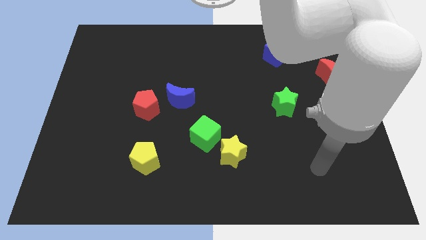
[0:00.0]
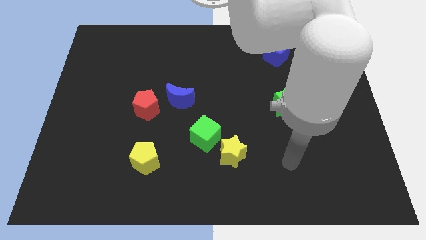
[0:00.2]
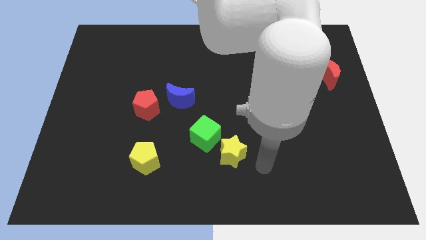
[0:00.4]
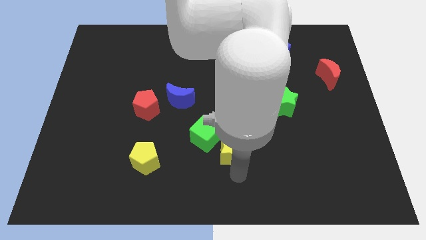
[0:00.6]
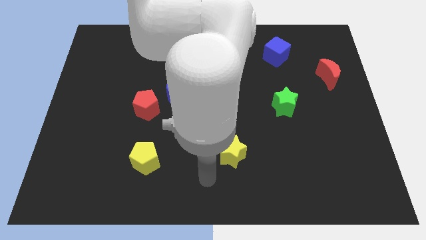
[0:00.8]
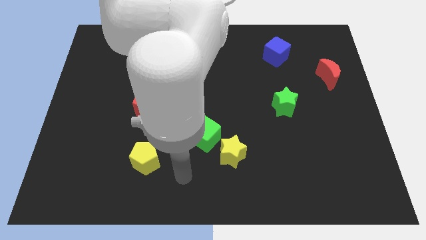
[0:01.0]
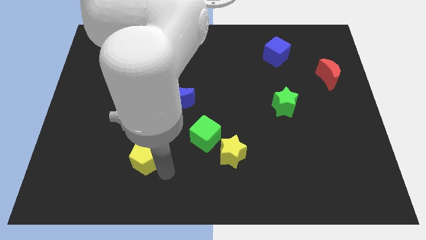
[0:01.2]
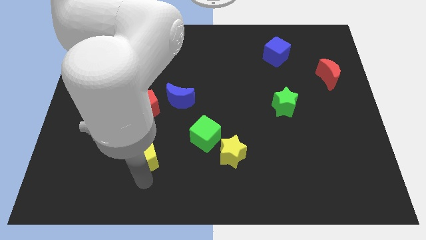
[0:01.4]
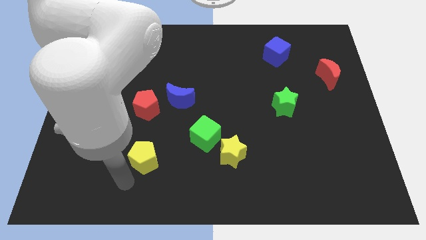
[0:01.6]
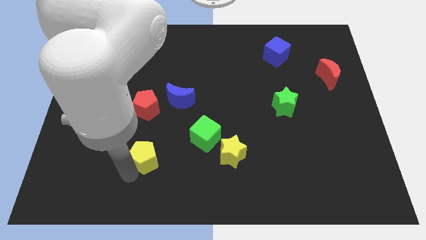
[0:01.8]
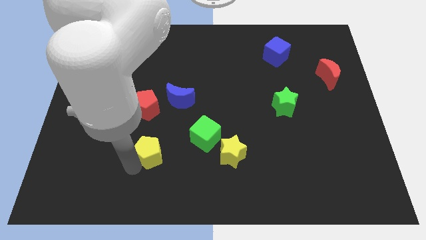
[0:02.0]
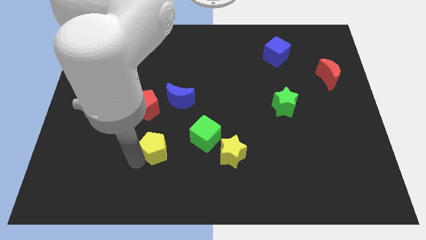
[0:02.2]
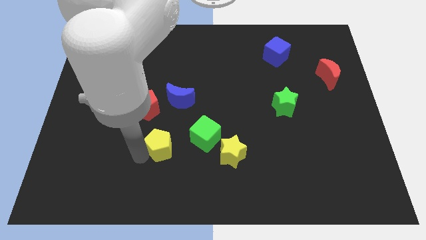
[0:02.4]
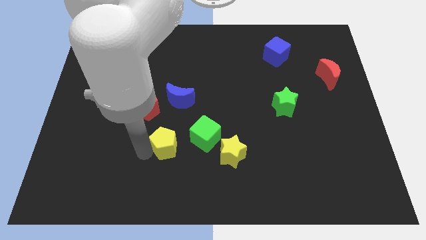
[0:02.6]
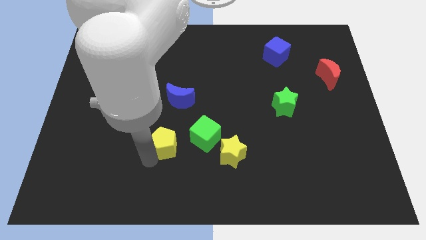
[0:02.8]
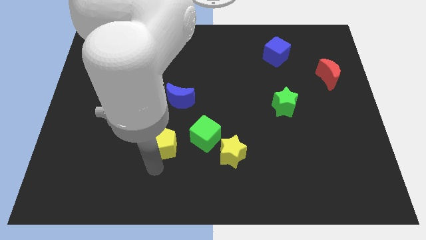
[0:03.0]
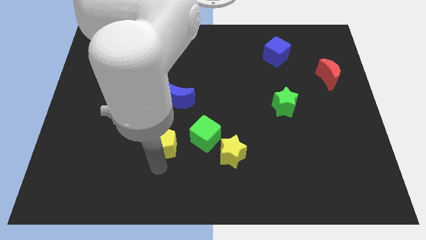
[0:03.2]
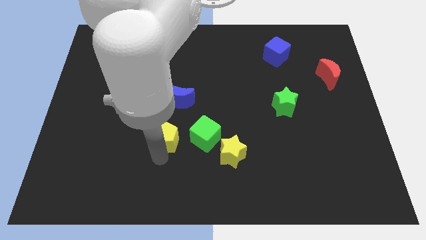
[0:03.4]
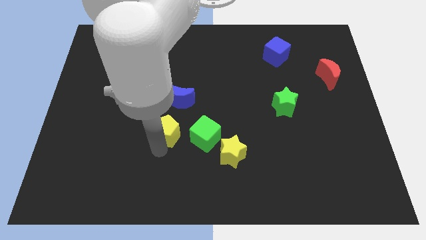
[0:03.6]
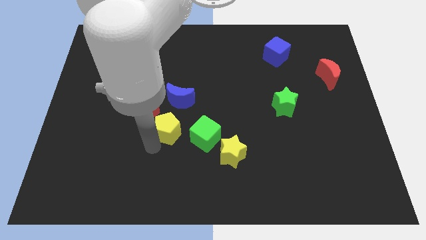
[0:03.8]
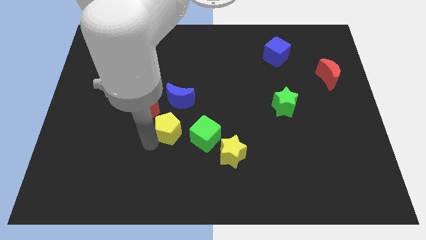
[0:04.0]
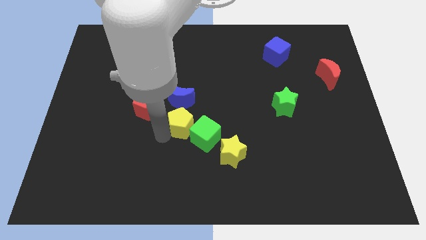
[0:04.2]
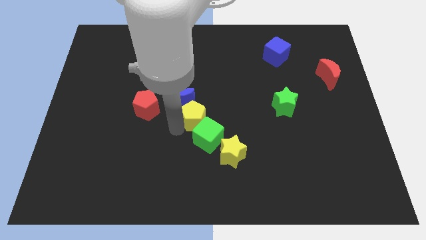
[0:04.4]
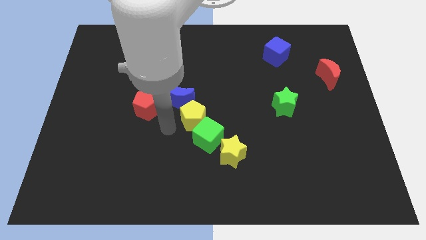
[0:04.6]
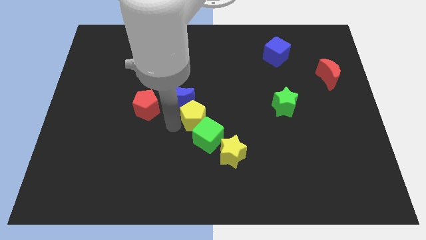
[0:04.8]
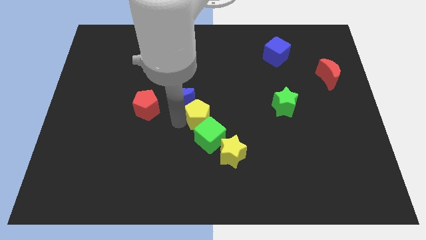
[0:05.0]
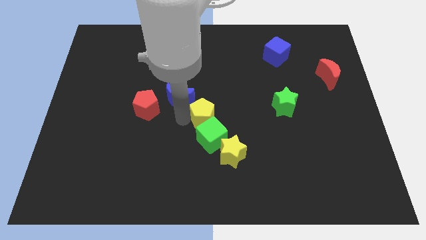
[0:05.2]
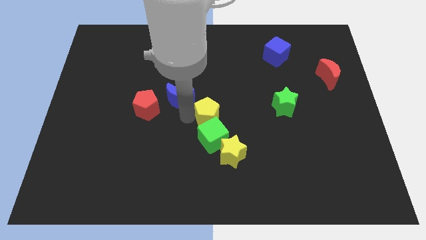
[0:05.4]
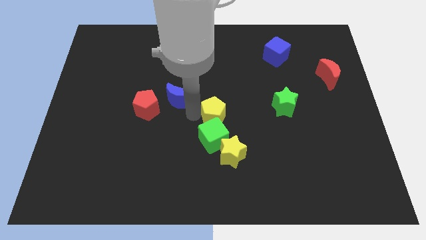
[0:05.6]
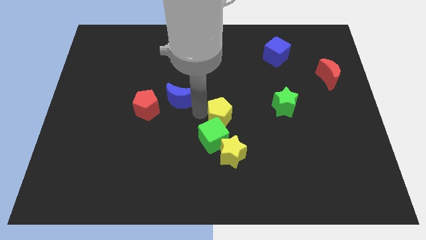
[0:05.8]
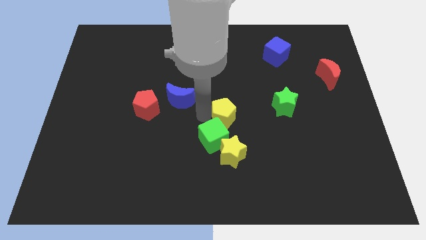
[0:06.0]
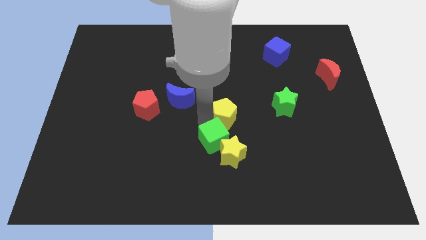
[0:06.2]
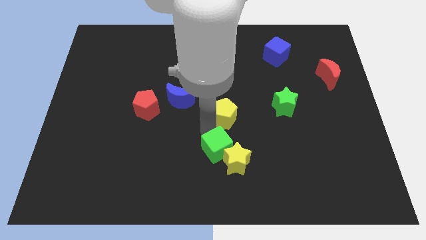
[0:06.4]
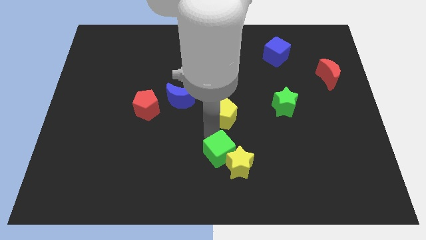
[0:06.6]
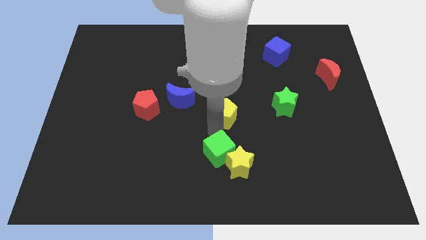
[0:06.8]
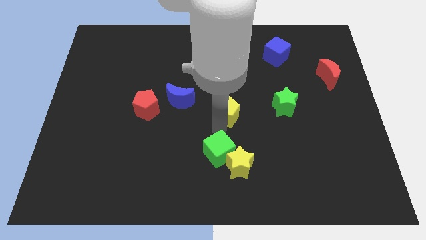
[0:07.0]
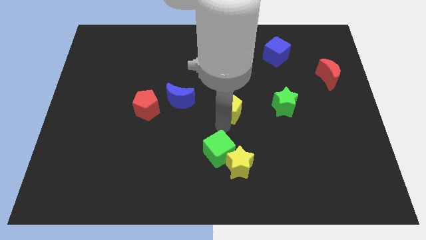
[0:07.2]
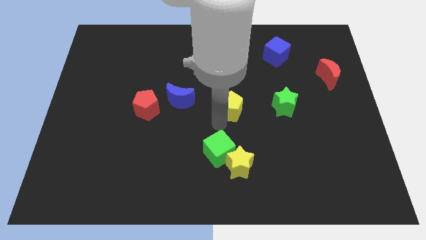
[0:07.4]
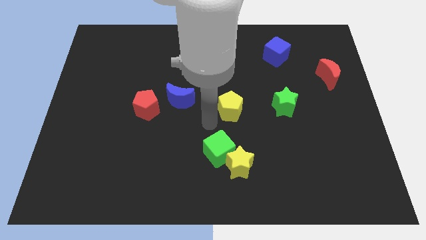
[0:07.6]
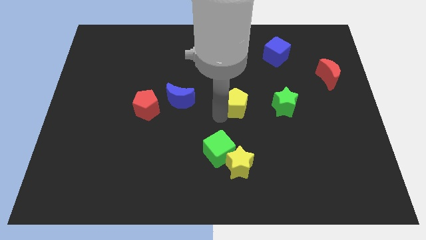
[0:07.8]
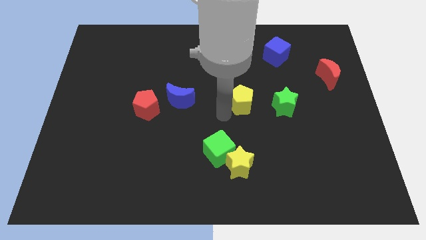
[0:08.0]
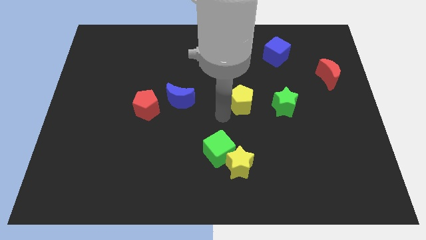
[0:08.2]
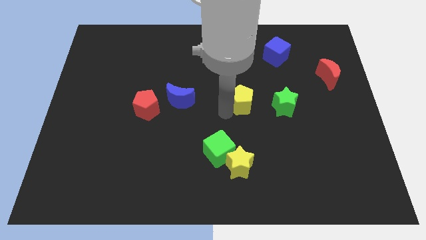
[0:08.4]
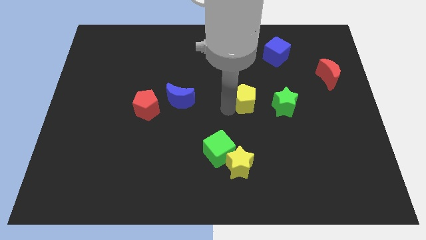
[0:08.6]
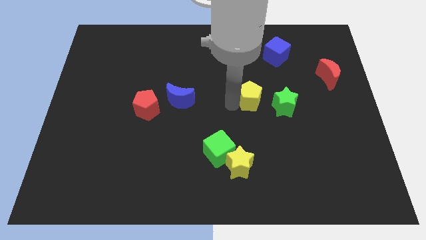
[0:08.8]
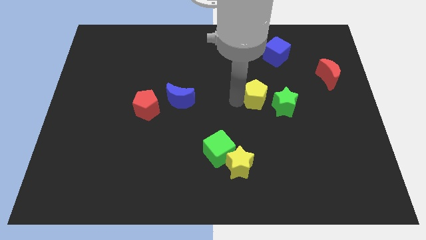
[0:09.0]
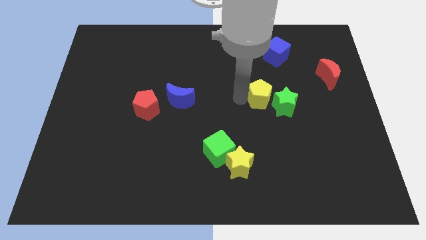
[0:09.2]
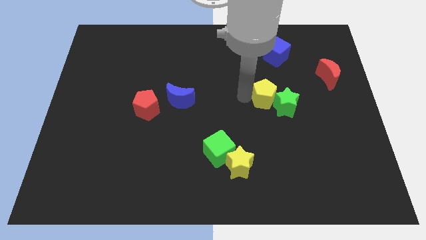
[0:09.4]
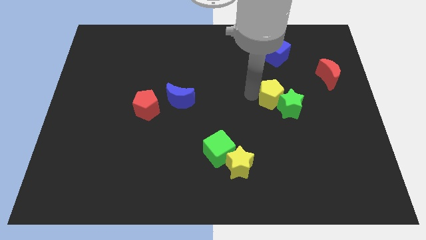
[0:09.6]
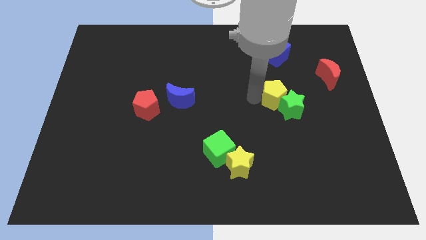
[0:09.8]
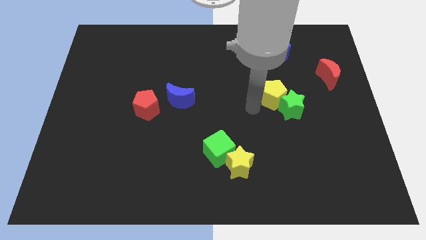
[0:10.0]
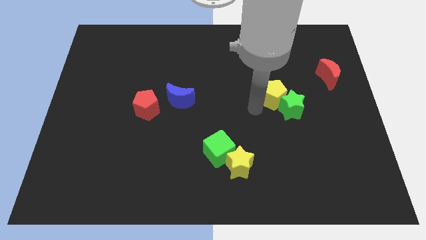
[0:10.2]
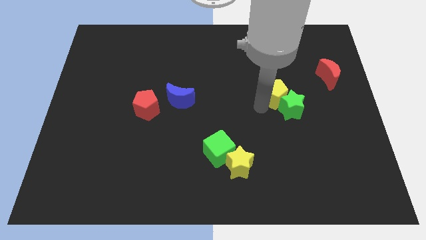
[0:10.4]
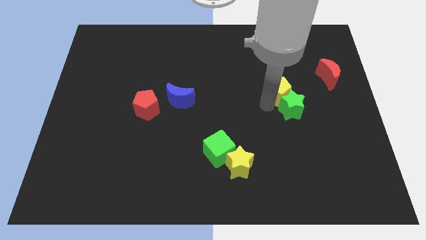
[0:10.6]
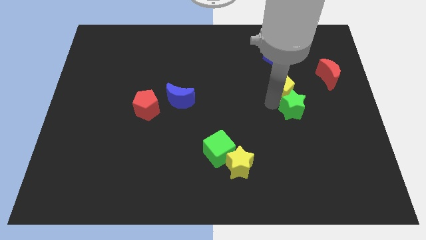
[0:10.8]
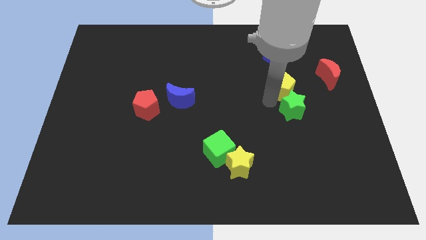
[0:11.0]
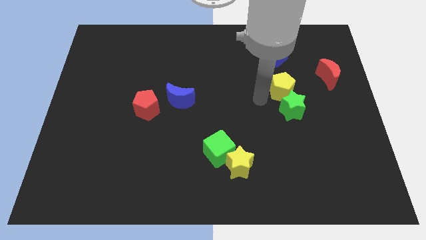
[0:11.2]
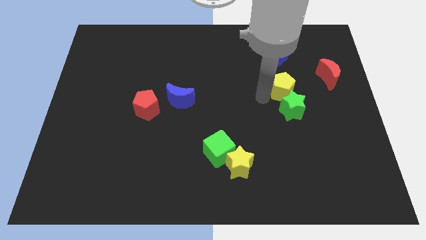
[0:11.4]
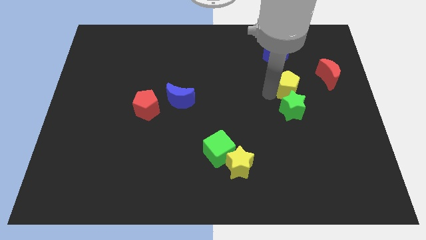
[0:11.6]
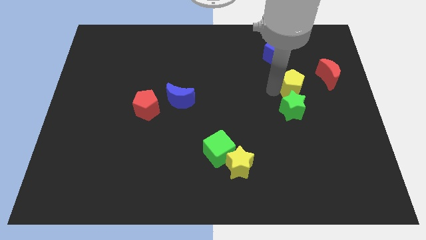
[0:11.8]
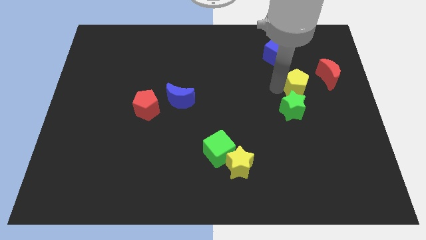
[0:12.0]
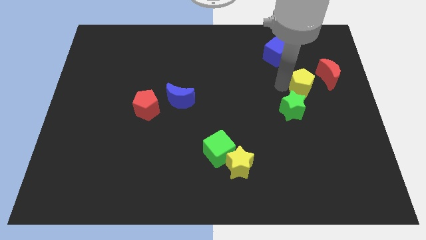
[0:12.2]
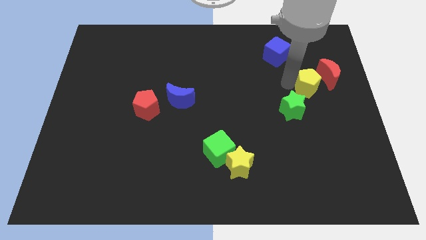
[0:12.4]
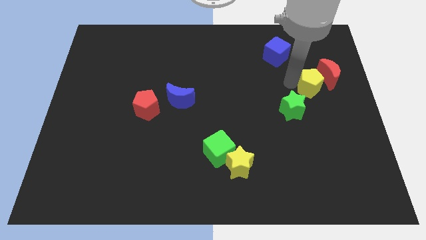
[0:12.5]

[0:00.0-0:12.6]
move the yellow pentagon towards the red moon

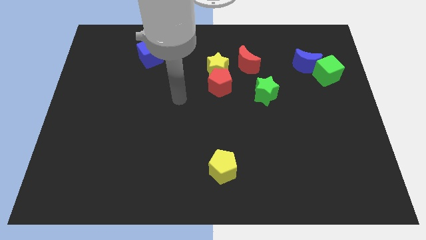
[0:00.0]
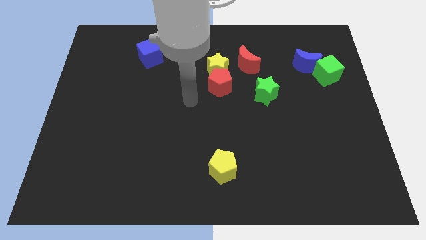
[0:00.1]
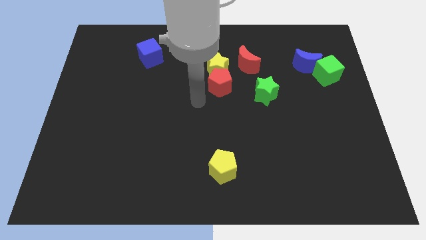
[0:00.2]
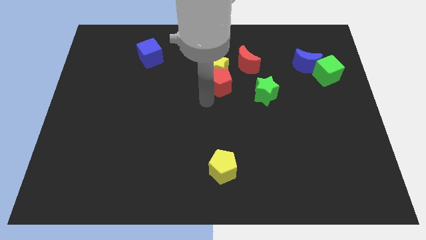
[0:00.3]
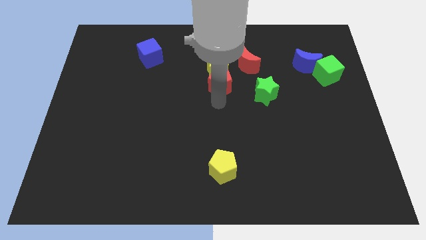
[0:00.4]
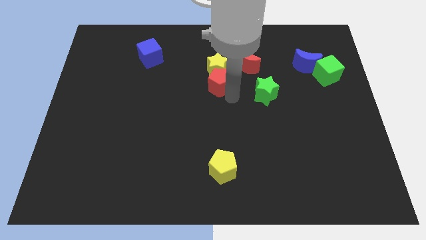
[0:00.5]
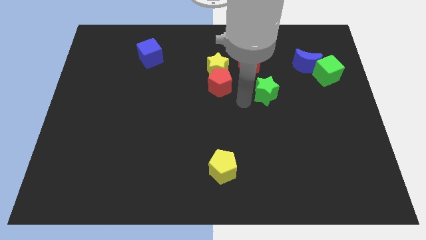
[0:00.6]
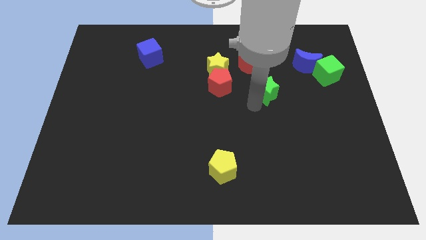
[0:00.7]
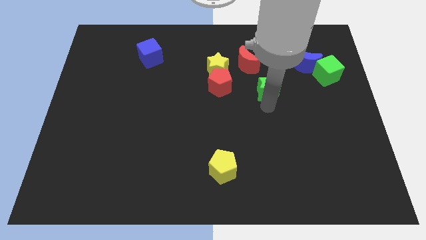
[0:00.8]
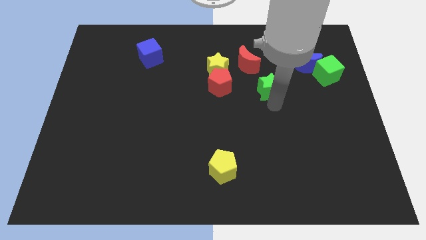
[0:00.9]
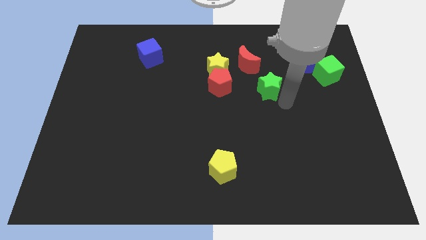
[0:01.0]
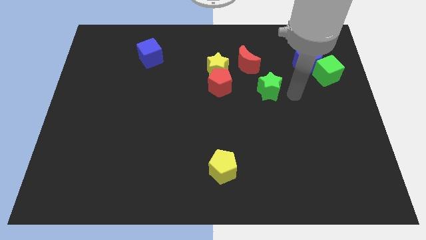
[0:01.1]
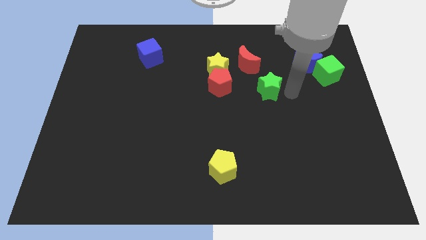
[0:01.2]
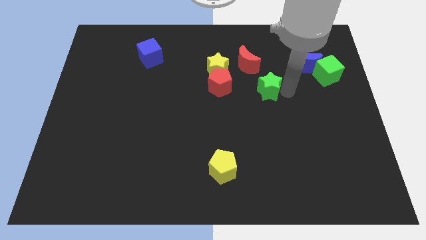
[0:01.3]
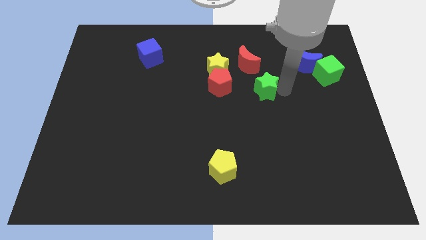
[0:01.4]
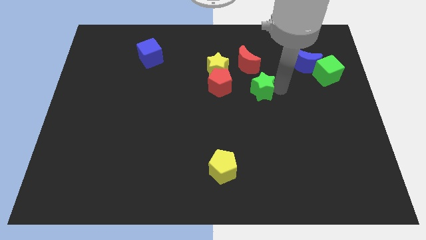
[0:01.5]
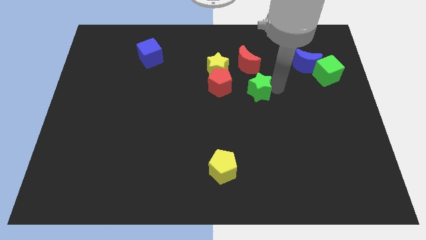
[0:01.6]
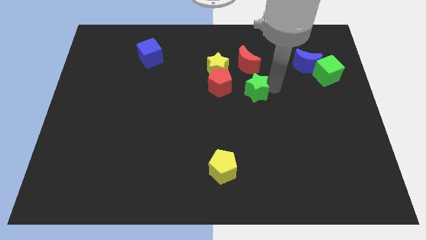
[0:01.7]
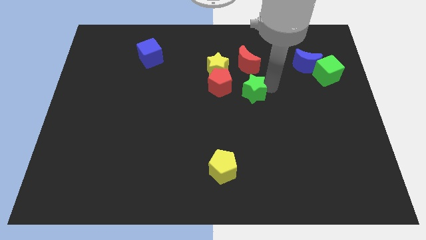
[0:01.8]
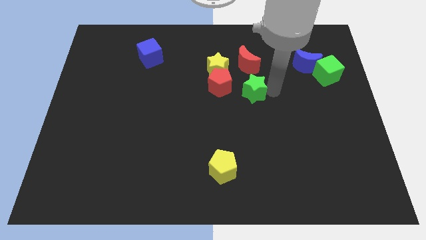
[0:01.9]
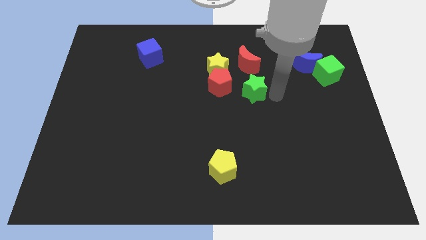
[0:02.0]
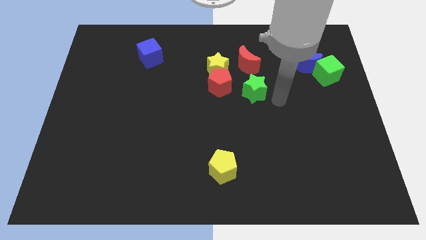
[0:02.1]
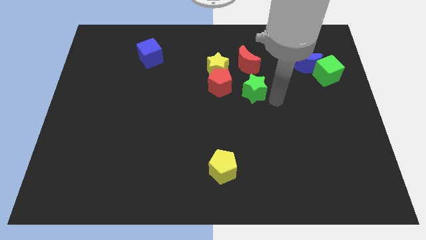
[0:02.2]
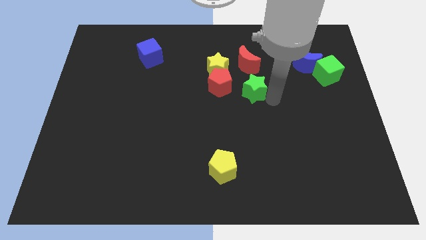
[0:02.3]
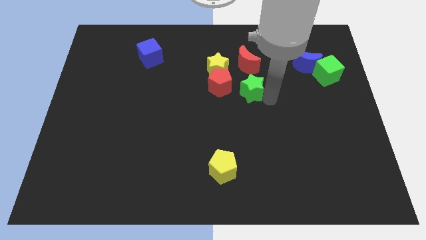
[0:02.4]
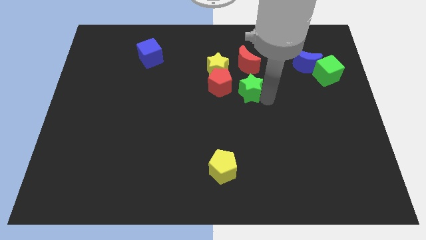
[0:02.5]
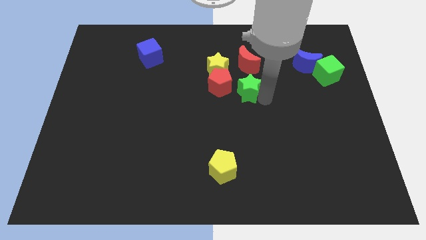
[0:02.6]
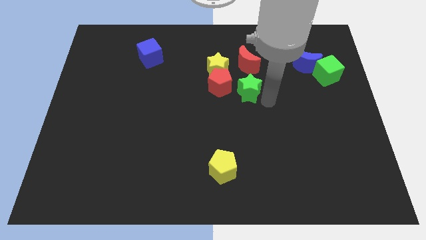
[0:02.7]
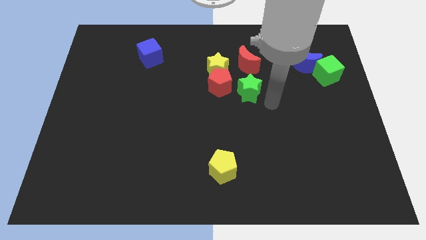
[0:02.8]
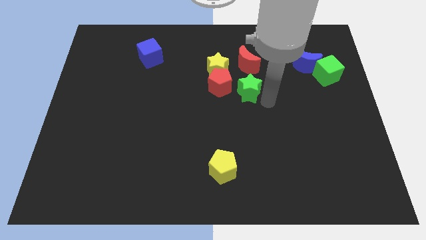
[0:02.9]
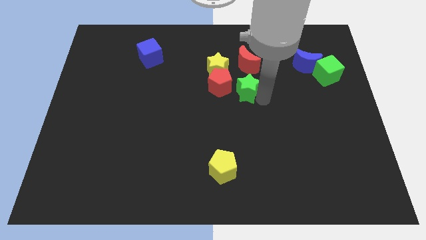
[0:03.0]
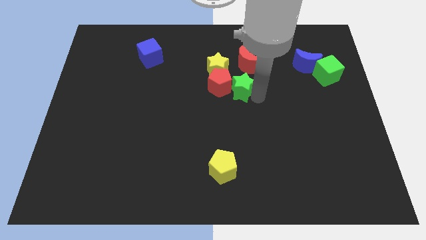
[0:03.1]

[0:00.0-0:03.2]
push the green star next to the red pentagon
